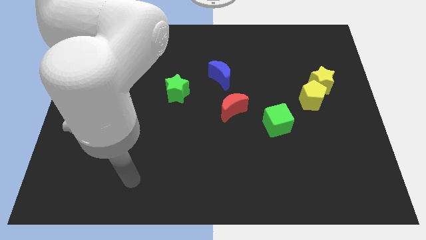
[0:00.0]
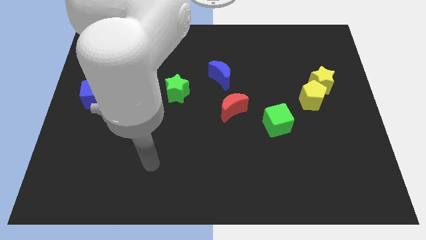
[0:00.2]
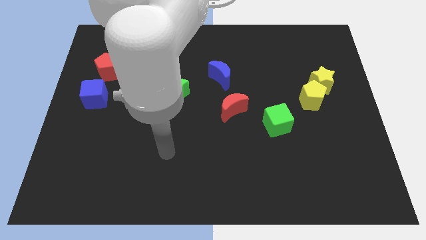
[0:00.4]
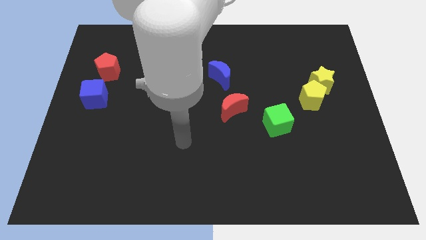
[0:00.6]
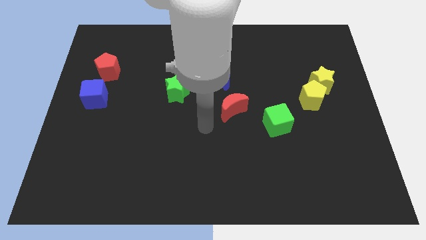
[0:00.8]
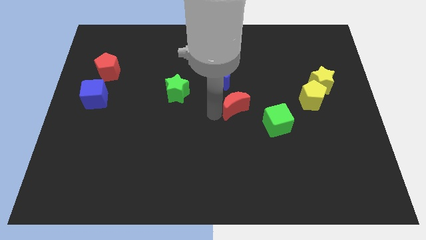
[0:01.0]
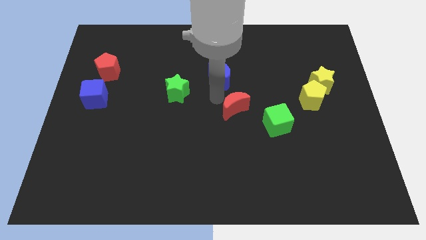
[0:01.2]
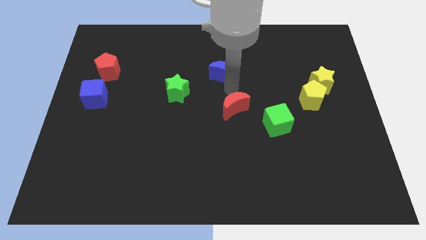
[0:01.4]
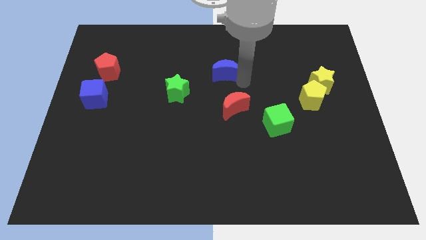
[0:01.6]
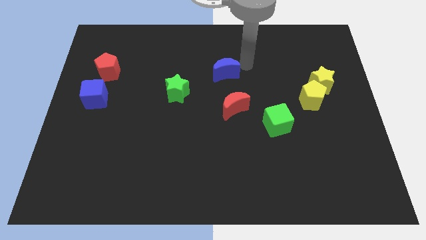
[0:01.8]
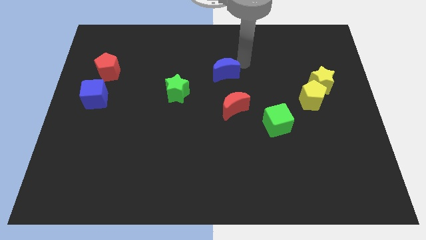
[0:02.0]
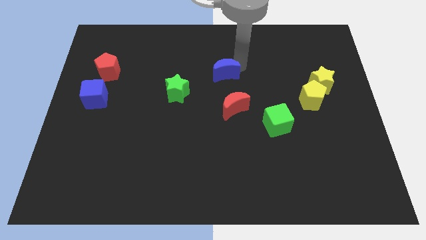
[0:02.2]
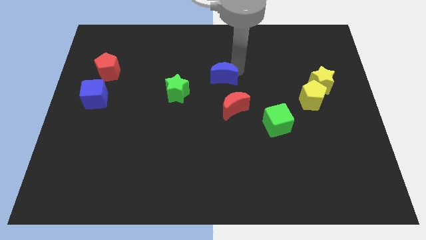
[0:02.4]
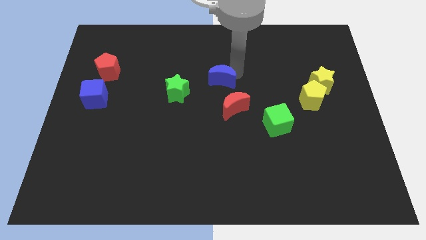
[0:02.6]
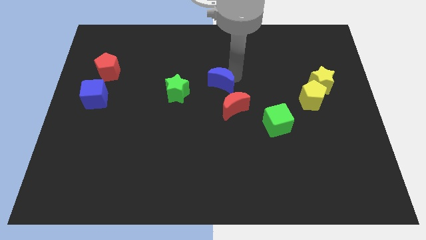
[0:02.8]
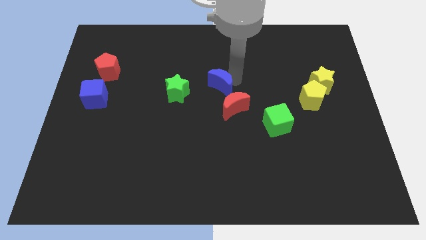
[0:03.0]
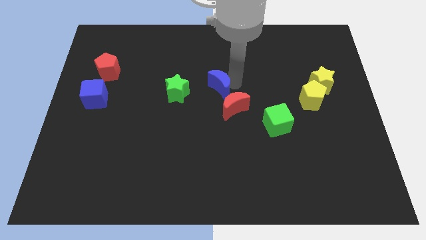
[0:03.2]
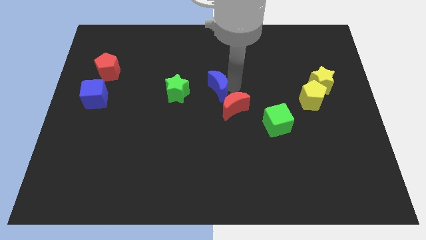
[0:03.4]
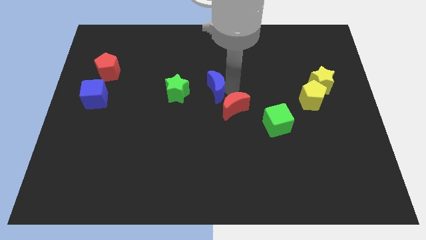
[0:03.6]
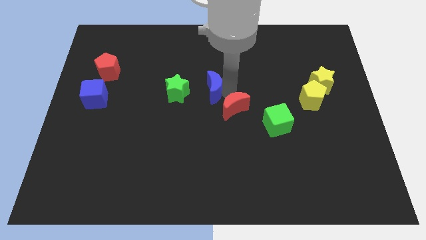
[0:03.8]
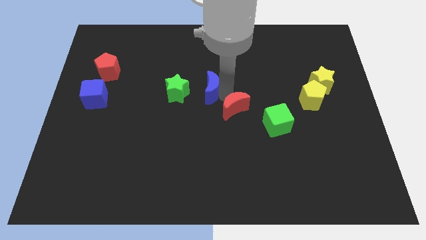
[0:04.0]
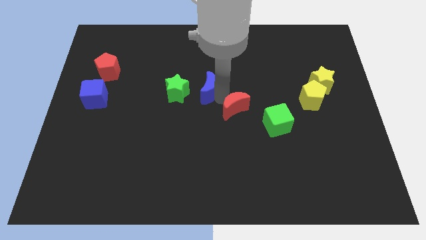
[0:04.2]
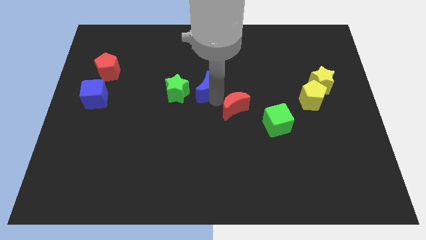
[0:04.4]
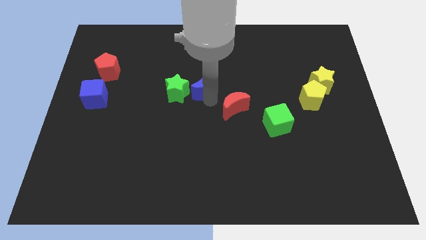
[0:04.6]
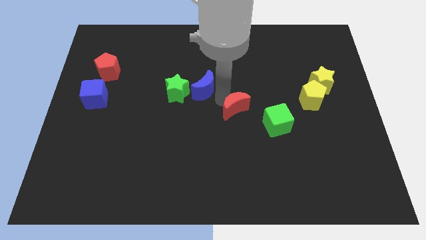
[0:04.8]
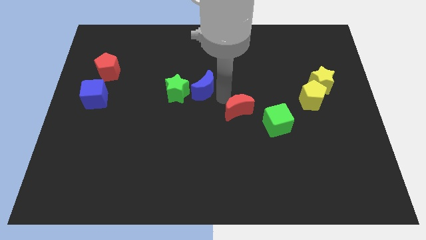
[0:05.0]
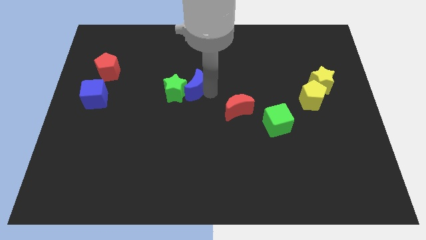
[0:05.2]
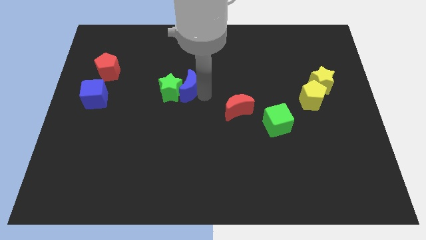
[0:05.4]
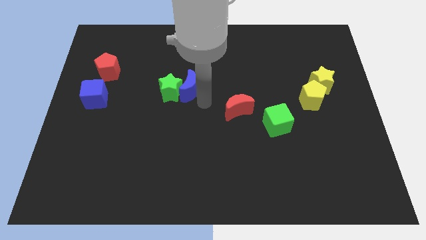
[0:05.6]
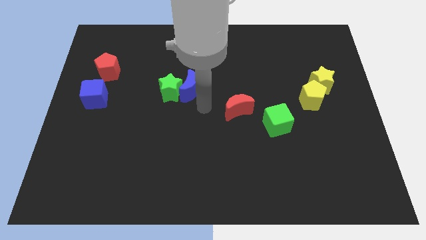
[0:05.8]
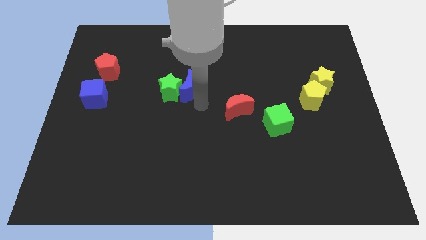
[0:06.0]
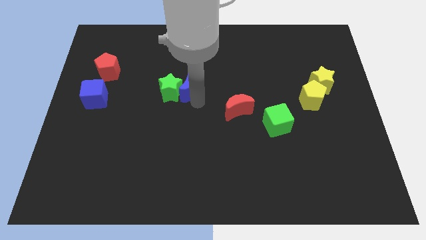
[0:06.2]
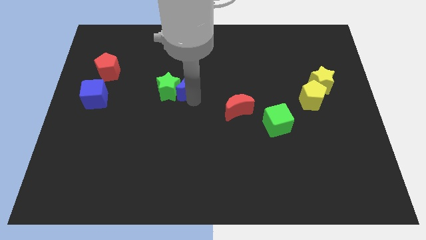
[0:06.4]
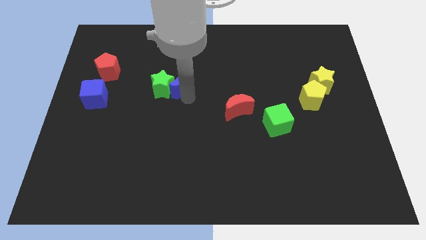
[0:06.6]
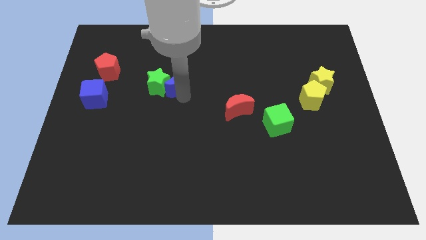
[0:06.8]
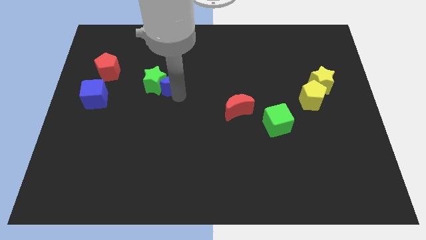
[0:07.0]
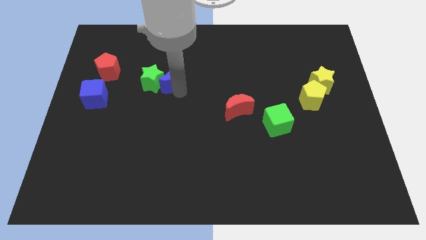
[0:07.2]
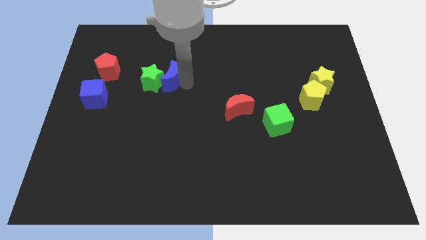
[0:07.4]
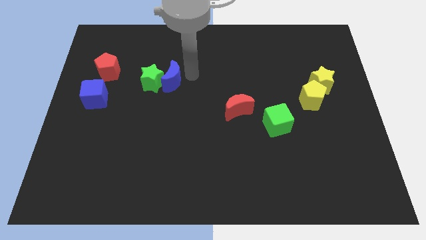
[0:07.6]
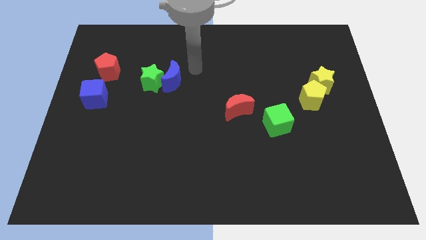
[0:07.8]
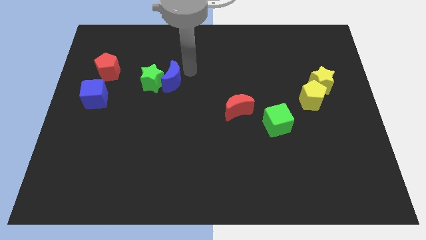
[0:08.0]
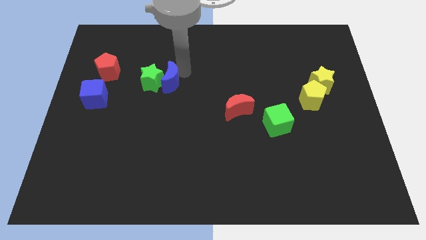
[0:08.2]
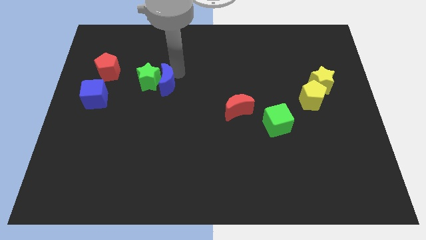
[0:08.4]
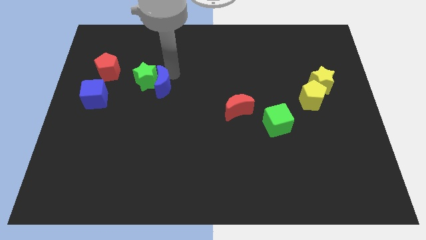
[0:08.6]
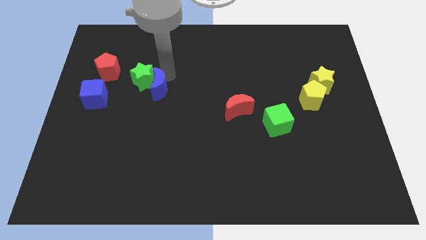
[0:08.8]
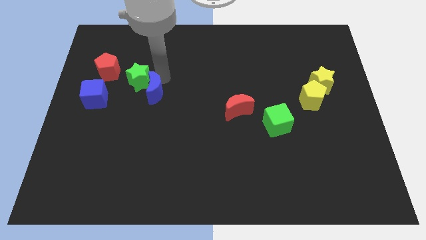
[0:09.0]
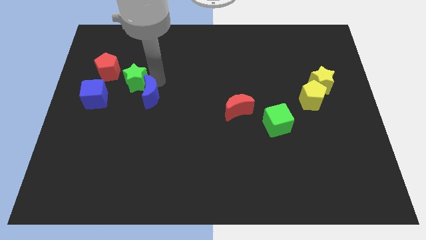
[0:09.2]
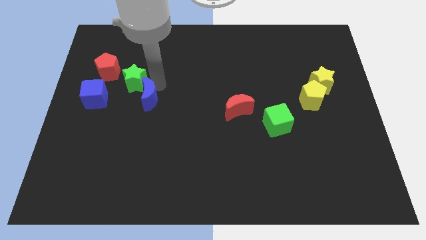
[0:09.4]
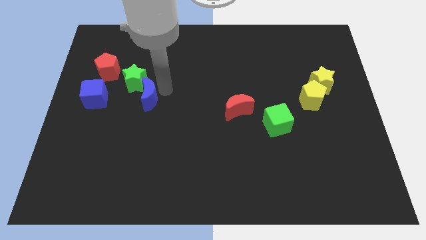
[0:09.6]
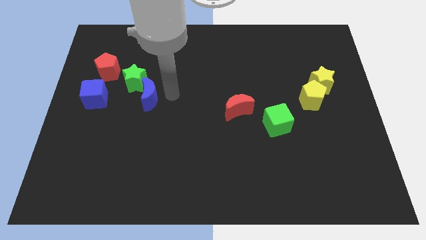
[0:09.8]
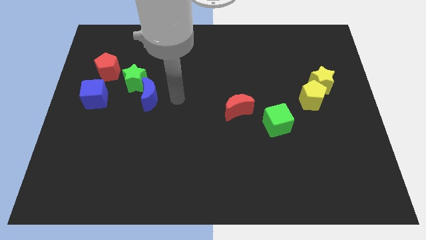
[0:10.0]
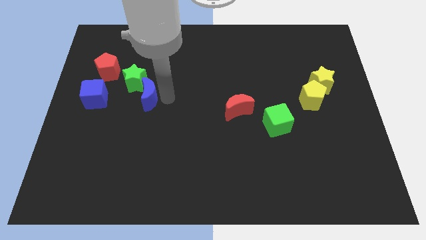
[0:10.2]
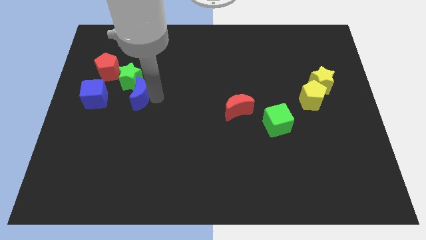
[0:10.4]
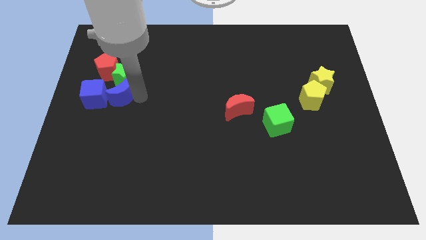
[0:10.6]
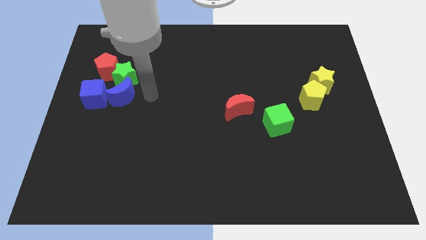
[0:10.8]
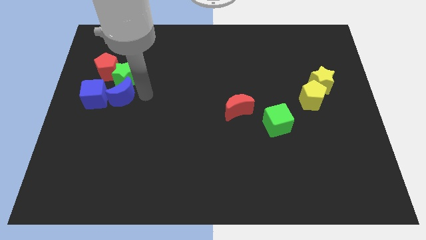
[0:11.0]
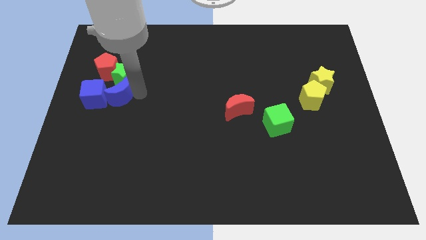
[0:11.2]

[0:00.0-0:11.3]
push the blue moon close to the blue cube

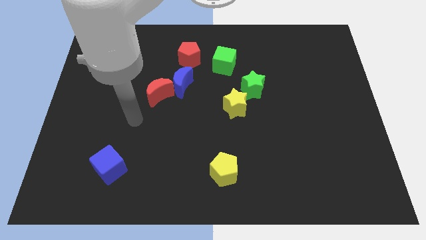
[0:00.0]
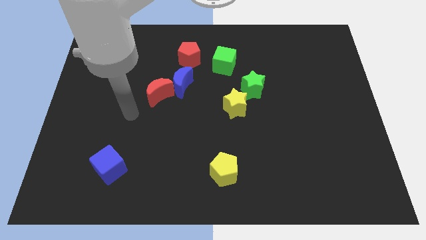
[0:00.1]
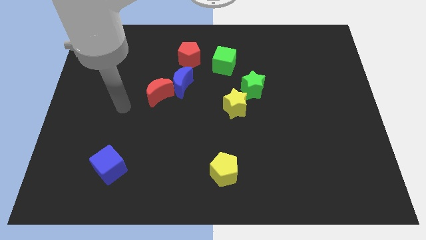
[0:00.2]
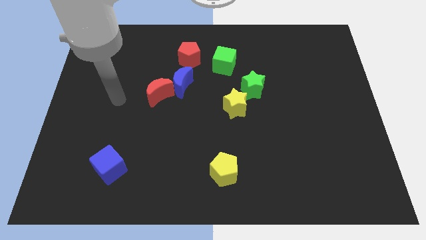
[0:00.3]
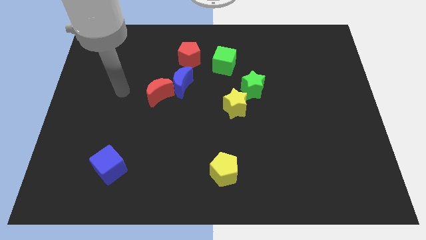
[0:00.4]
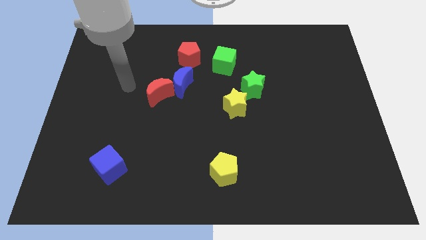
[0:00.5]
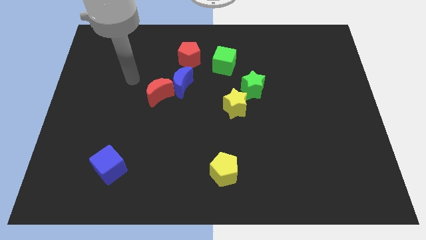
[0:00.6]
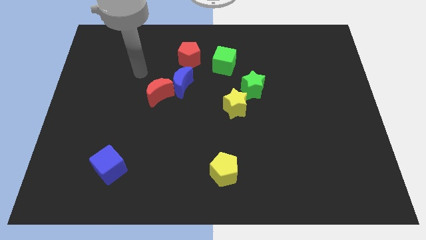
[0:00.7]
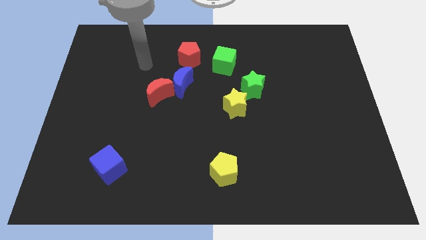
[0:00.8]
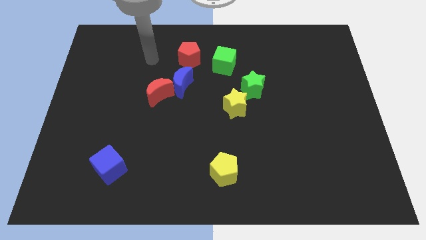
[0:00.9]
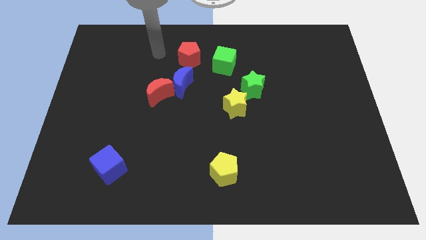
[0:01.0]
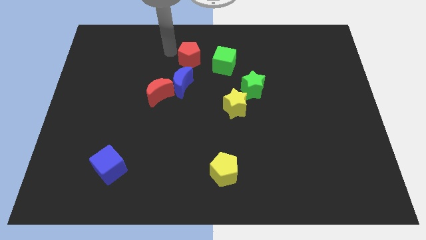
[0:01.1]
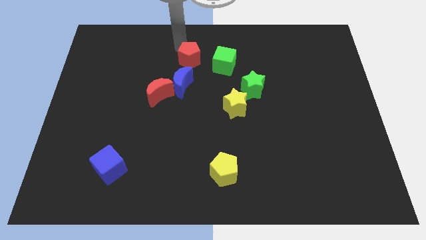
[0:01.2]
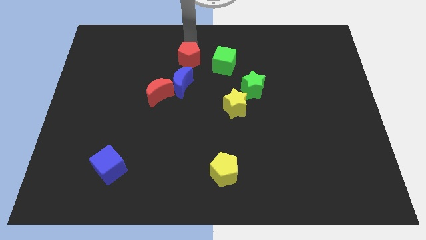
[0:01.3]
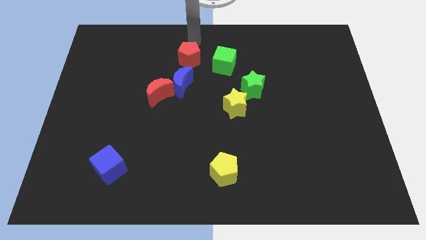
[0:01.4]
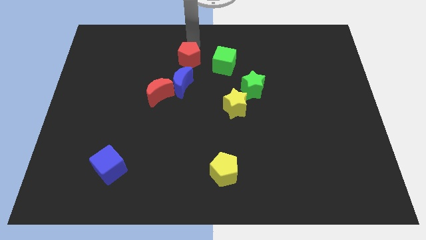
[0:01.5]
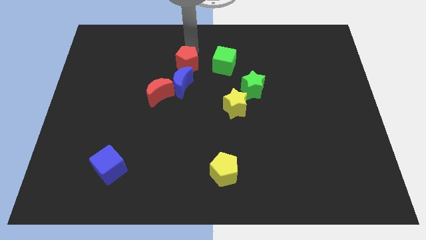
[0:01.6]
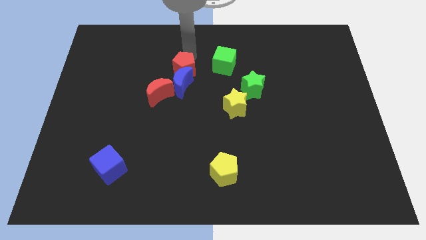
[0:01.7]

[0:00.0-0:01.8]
put the red pentagon towards the blue moon

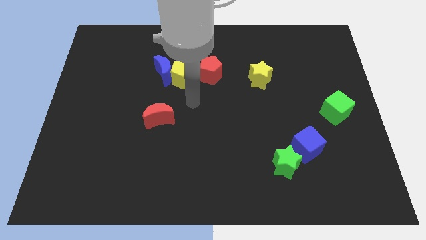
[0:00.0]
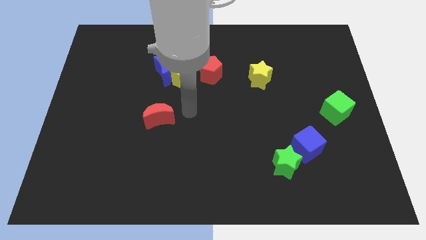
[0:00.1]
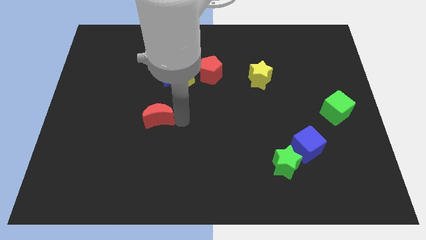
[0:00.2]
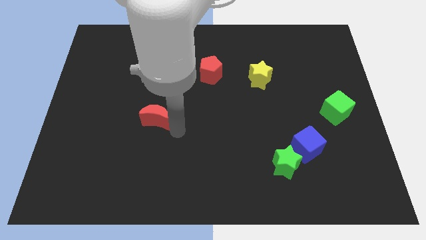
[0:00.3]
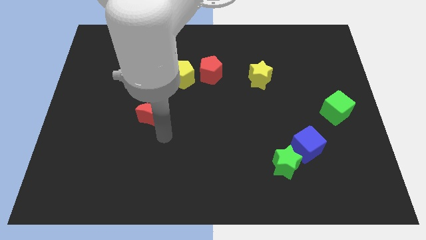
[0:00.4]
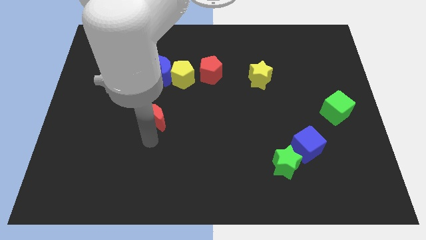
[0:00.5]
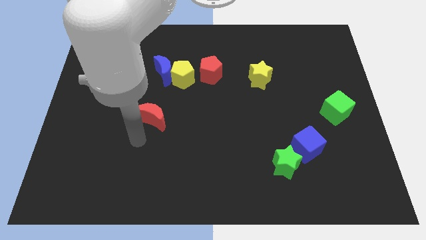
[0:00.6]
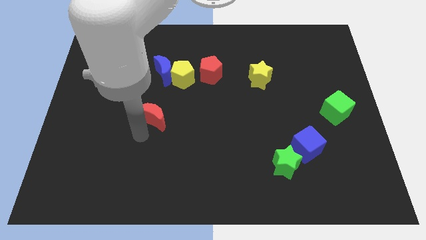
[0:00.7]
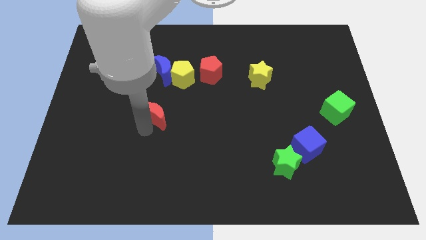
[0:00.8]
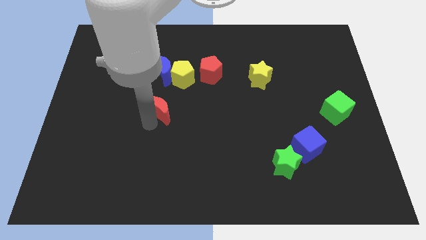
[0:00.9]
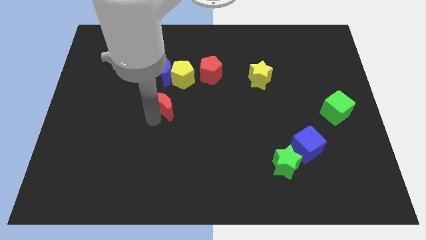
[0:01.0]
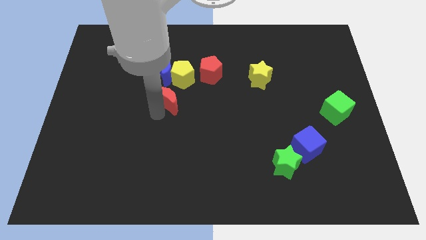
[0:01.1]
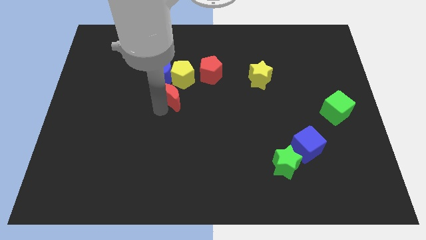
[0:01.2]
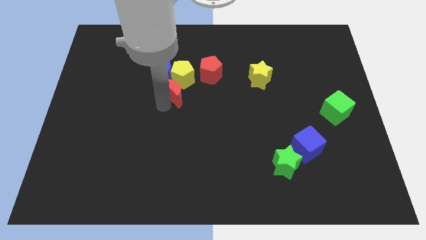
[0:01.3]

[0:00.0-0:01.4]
slide the red moon towards the yellow pentagon
